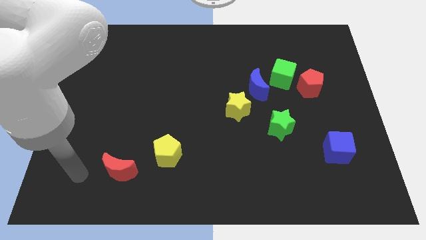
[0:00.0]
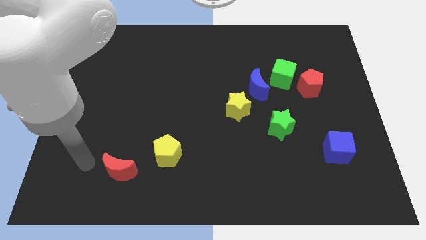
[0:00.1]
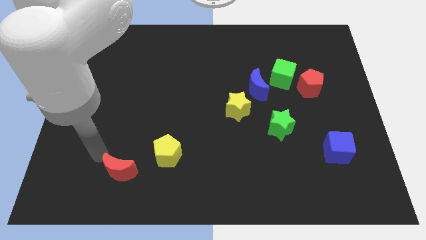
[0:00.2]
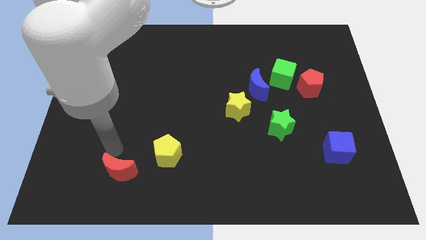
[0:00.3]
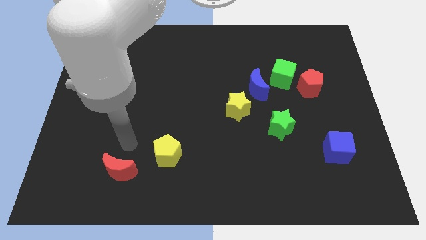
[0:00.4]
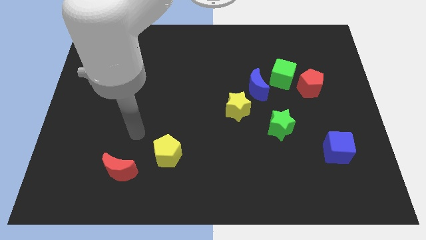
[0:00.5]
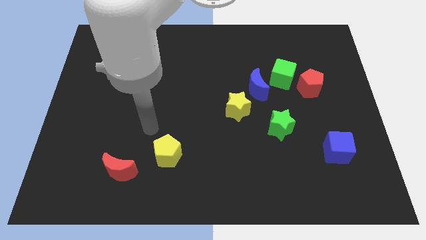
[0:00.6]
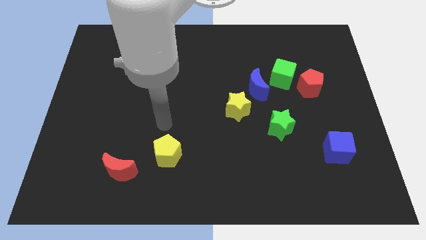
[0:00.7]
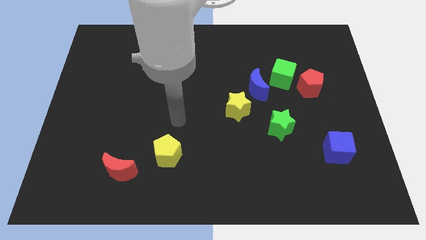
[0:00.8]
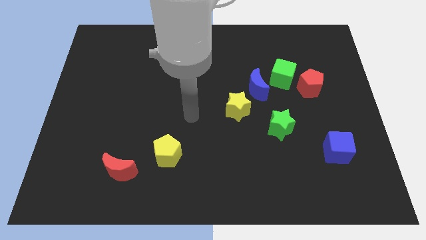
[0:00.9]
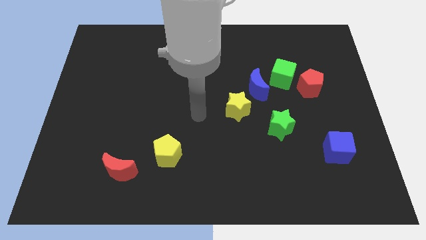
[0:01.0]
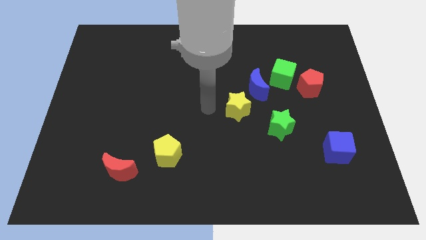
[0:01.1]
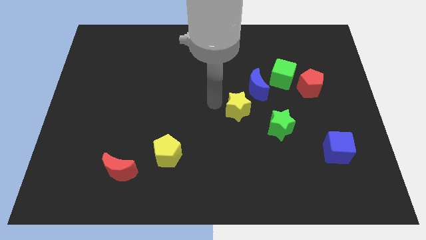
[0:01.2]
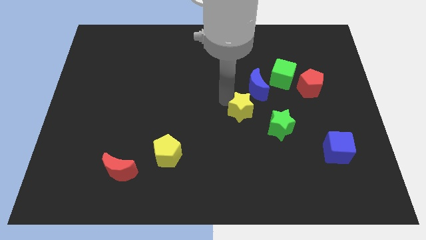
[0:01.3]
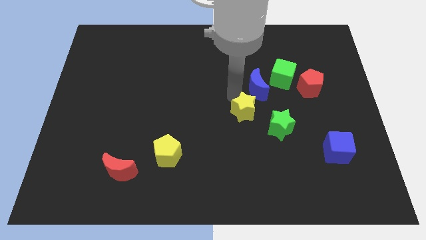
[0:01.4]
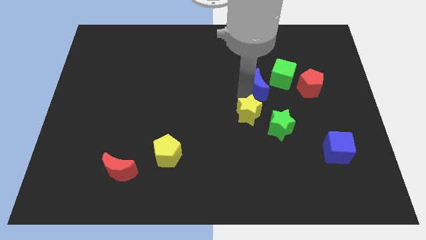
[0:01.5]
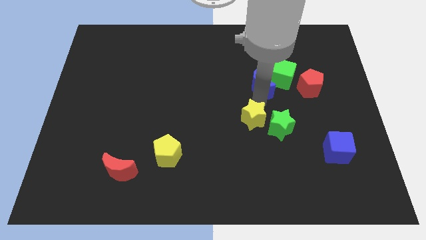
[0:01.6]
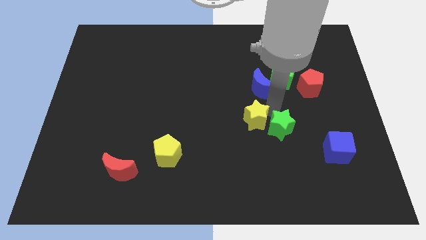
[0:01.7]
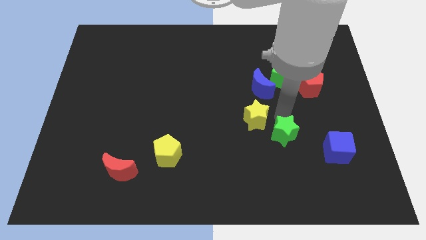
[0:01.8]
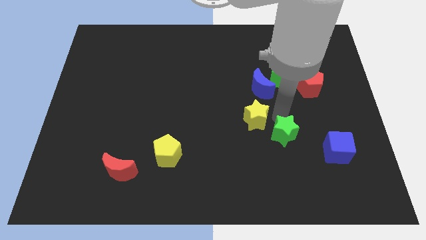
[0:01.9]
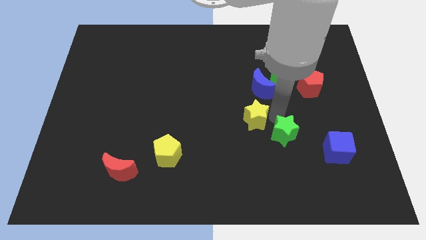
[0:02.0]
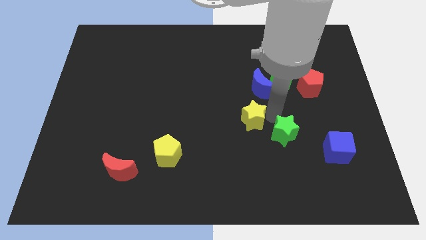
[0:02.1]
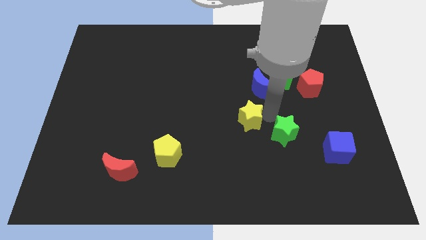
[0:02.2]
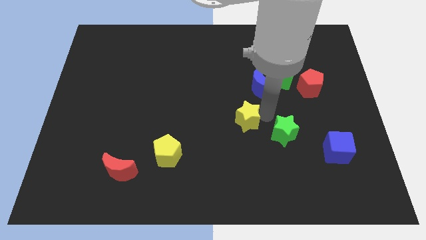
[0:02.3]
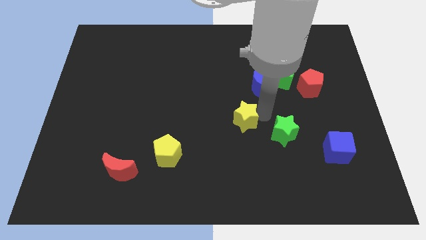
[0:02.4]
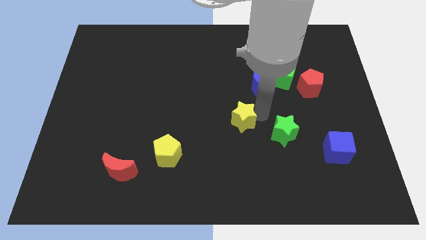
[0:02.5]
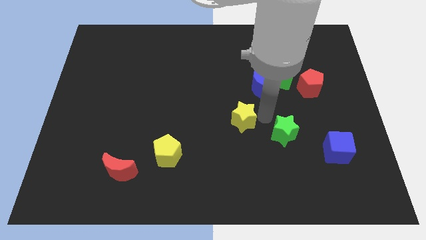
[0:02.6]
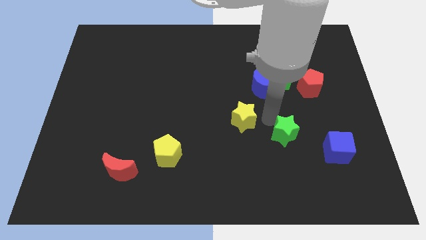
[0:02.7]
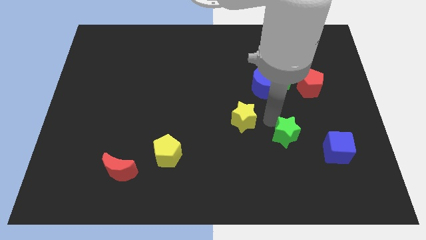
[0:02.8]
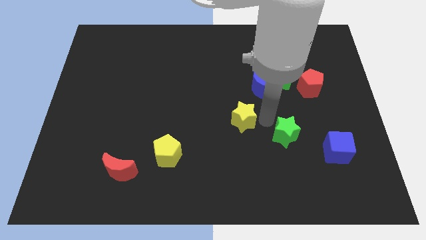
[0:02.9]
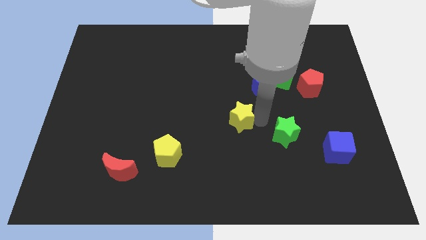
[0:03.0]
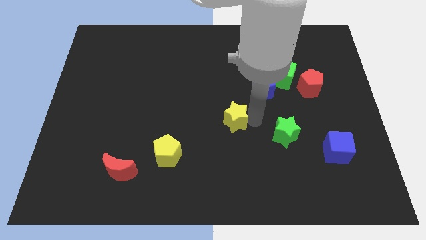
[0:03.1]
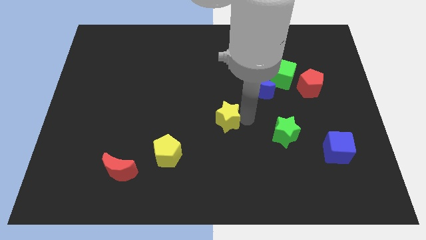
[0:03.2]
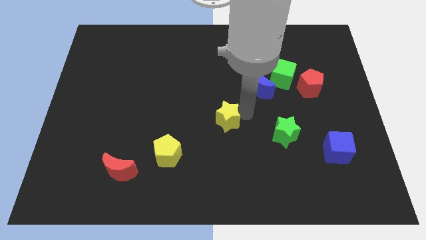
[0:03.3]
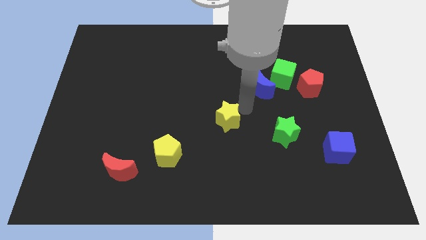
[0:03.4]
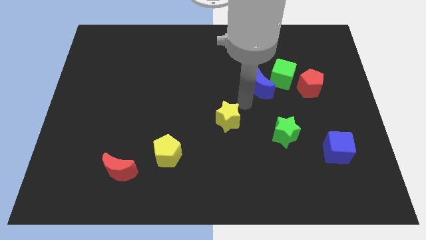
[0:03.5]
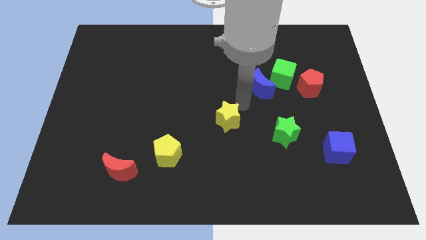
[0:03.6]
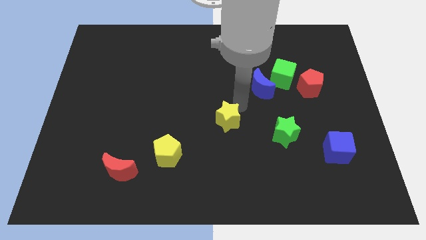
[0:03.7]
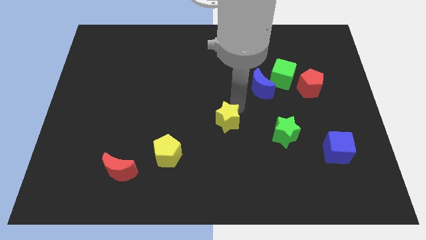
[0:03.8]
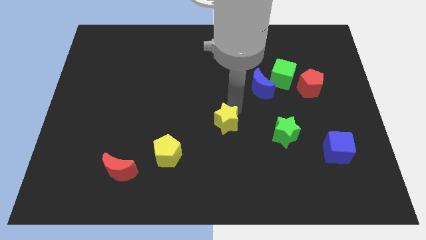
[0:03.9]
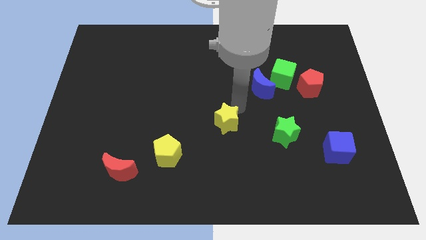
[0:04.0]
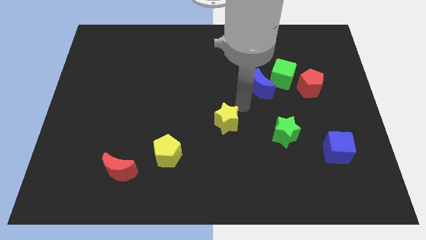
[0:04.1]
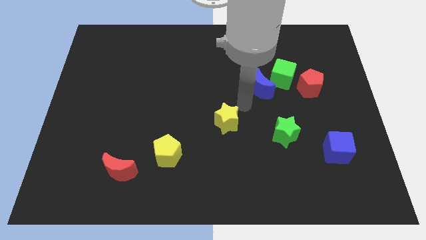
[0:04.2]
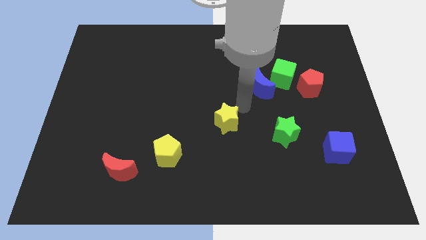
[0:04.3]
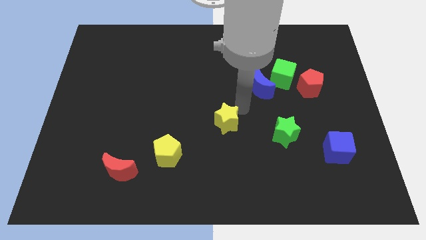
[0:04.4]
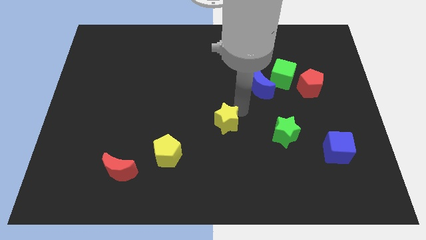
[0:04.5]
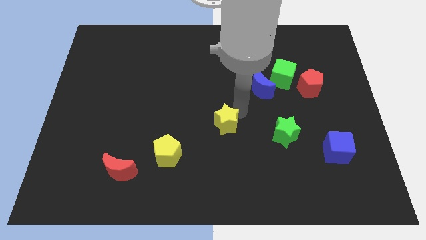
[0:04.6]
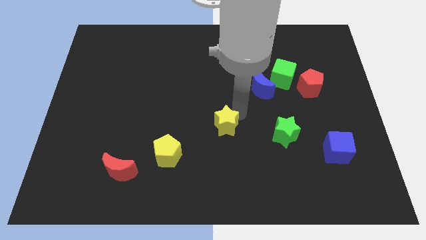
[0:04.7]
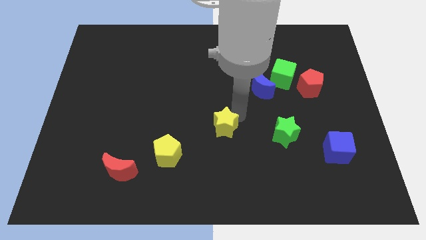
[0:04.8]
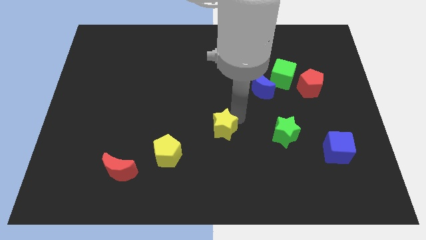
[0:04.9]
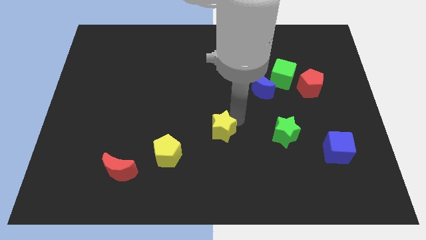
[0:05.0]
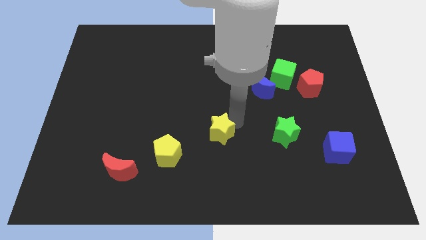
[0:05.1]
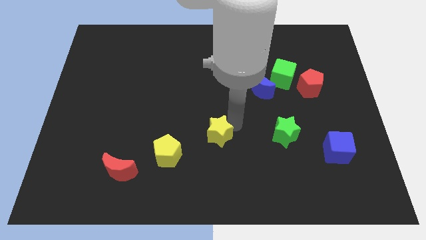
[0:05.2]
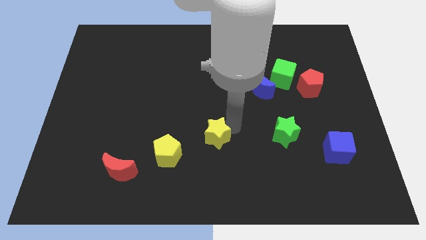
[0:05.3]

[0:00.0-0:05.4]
push the yellow star to the top right side of the yellow pentagon

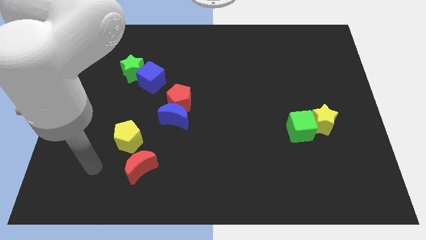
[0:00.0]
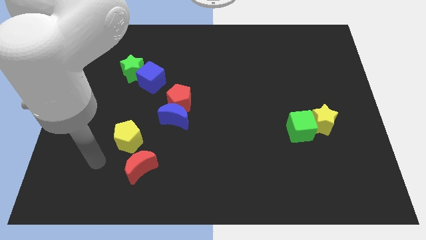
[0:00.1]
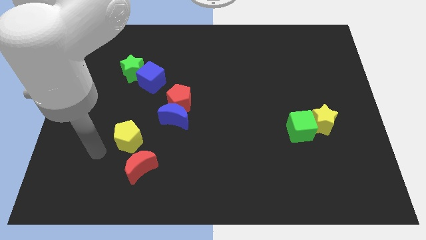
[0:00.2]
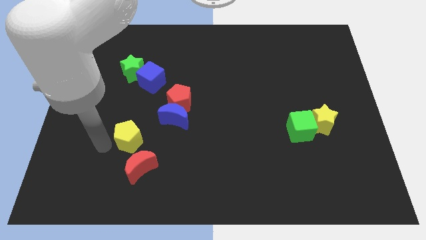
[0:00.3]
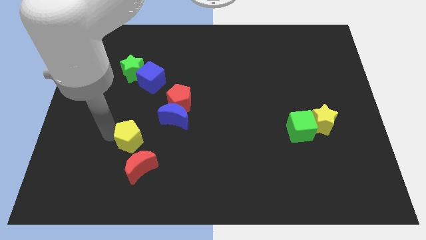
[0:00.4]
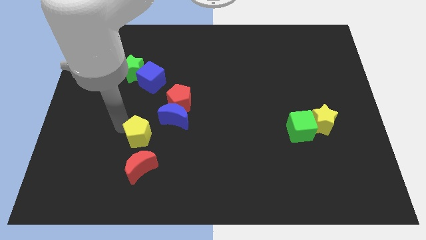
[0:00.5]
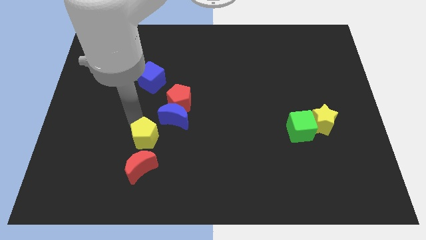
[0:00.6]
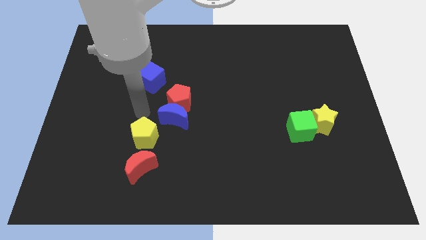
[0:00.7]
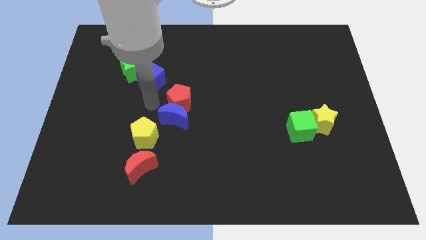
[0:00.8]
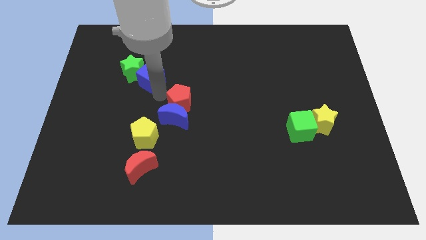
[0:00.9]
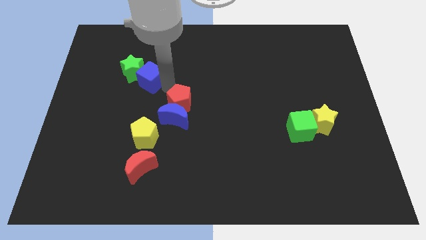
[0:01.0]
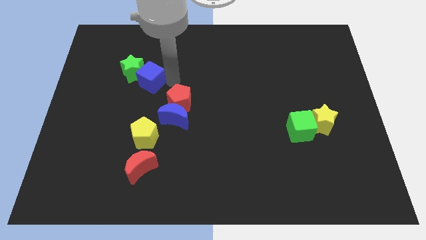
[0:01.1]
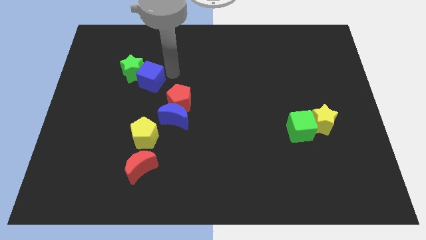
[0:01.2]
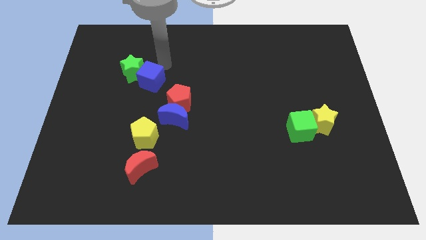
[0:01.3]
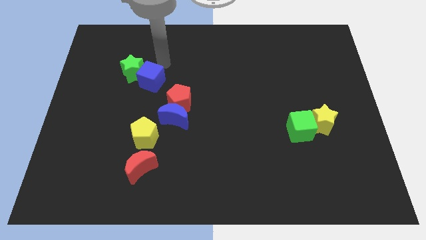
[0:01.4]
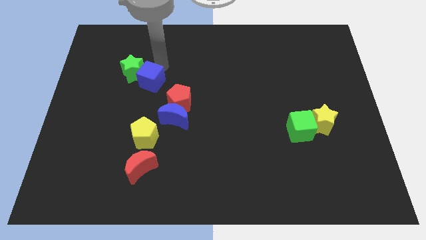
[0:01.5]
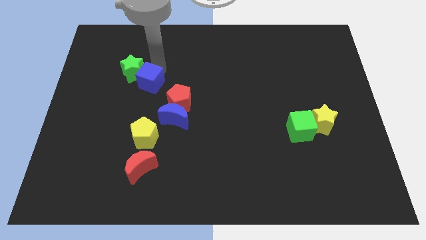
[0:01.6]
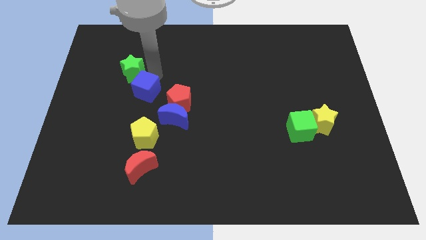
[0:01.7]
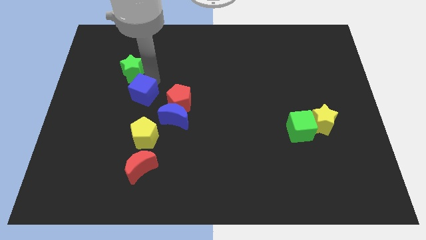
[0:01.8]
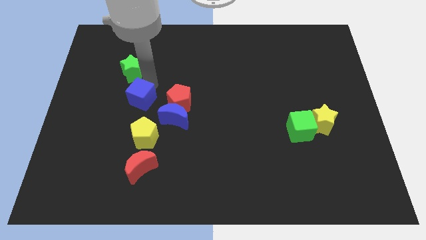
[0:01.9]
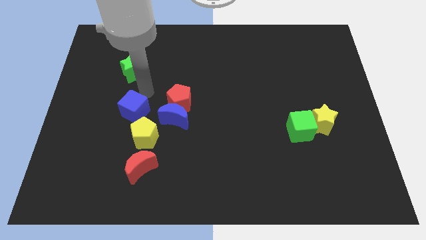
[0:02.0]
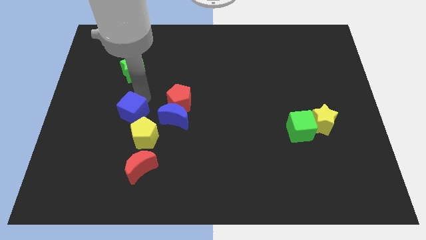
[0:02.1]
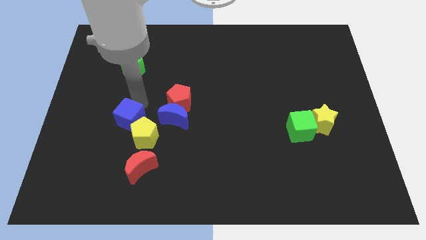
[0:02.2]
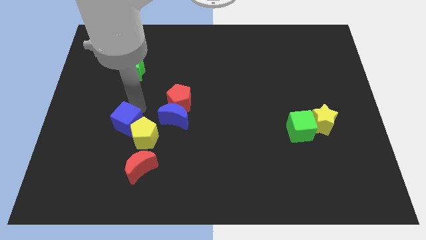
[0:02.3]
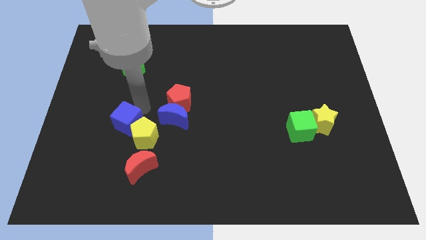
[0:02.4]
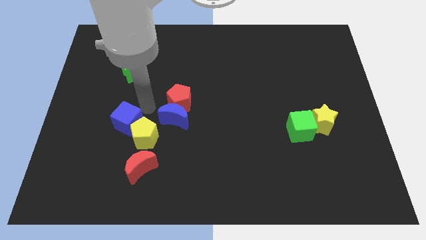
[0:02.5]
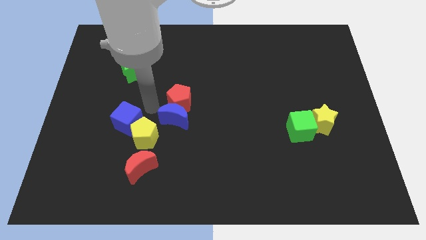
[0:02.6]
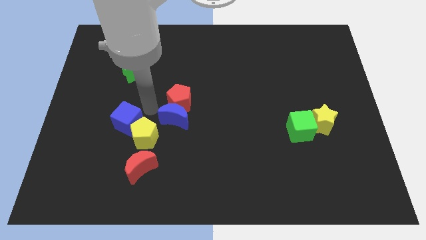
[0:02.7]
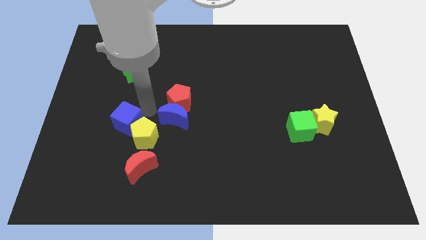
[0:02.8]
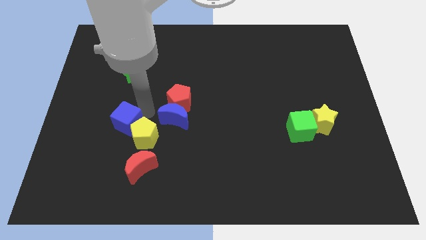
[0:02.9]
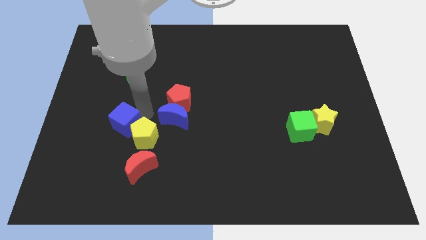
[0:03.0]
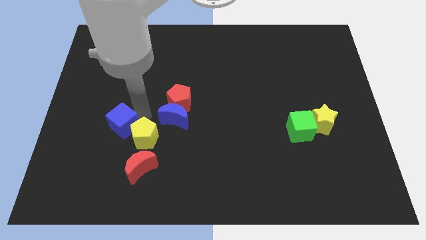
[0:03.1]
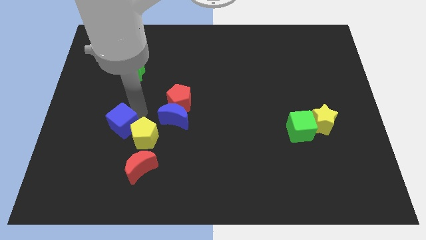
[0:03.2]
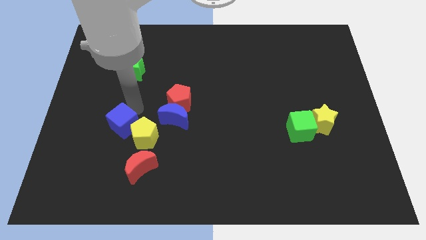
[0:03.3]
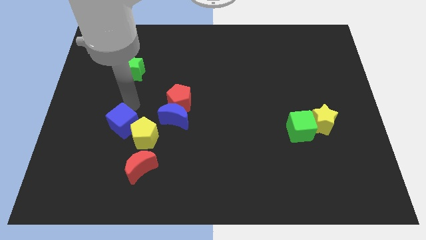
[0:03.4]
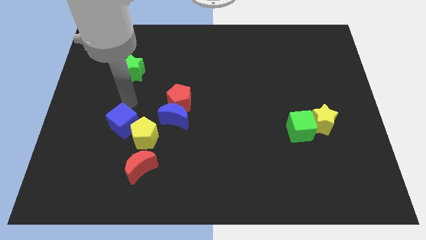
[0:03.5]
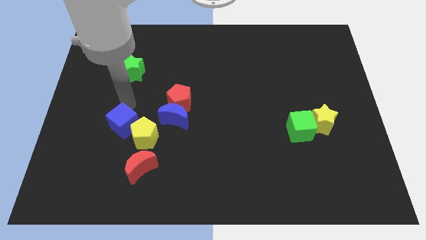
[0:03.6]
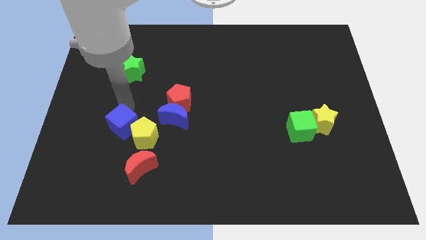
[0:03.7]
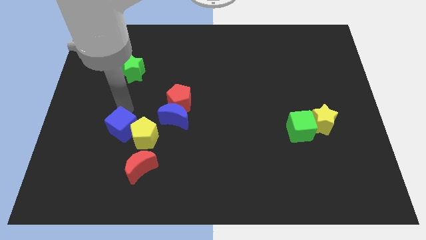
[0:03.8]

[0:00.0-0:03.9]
slide the blue cube diagonally up and to the left of the red moon
